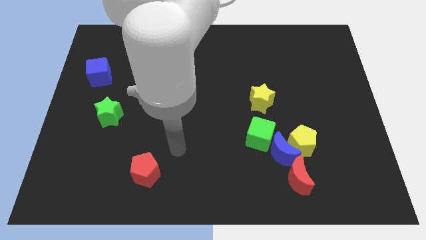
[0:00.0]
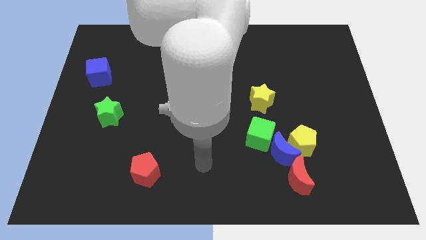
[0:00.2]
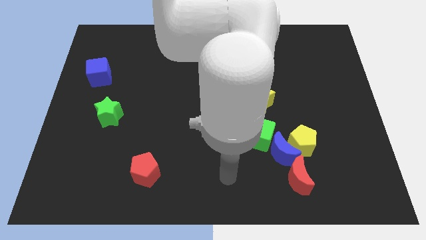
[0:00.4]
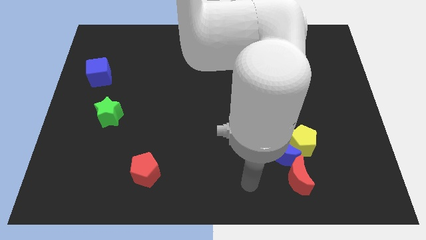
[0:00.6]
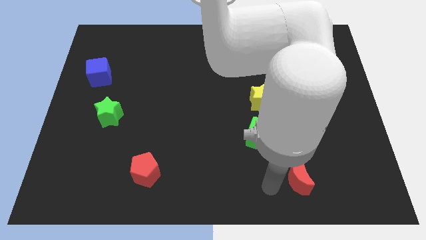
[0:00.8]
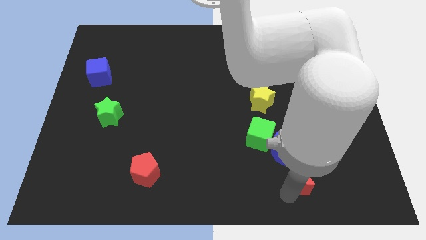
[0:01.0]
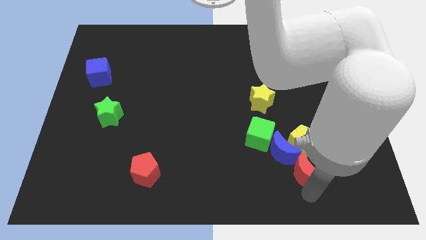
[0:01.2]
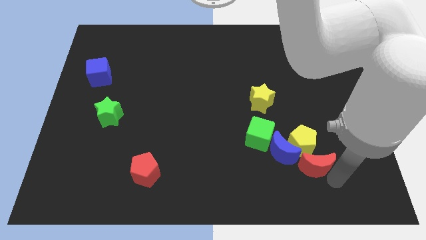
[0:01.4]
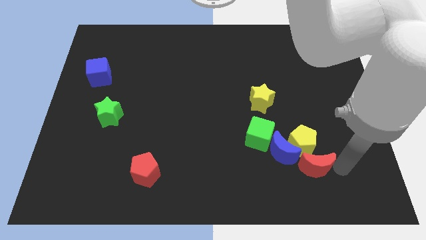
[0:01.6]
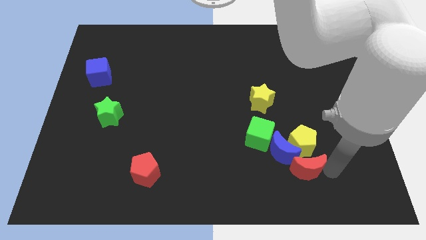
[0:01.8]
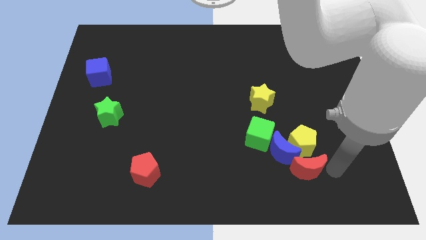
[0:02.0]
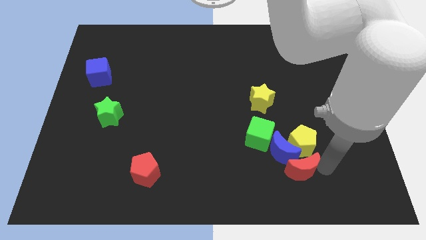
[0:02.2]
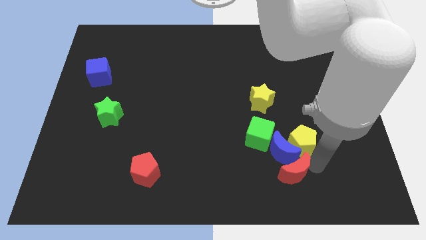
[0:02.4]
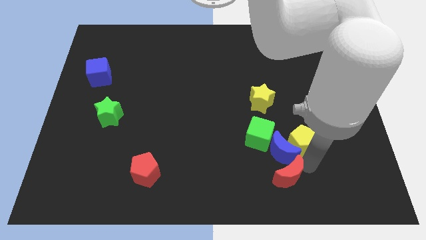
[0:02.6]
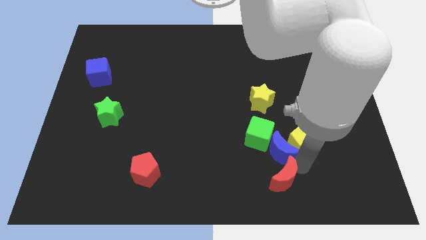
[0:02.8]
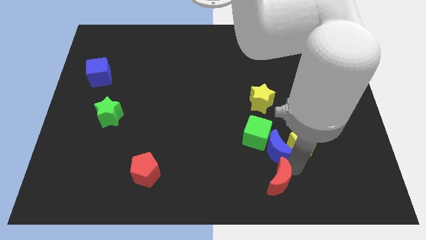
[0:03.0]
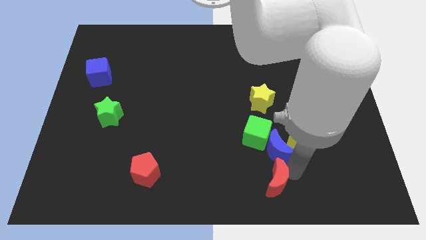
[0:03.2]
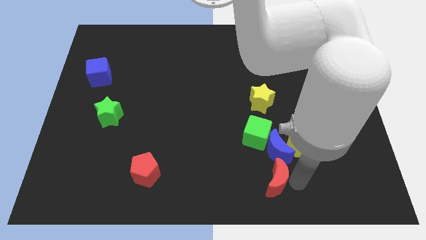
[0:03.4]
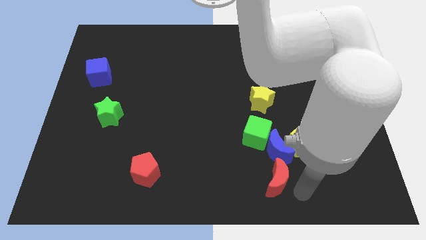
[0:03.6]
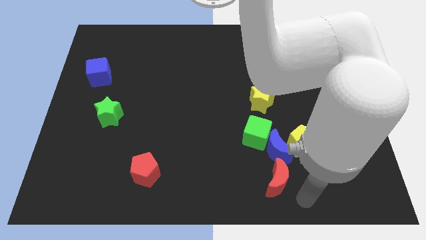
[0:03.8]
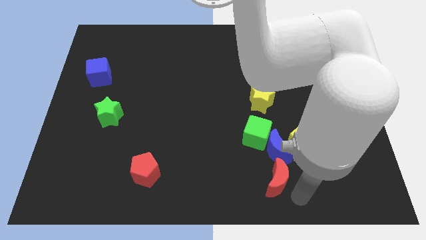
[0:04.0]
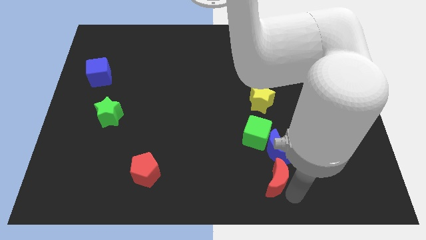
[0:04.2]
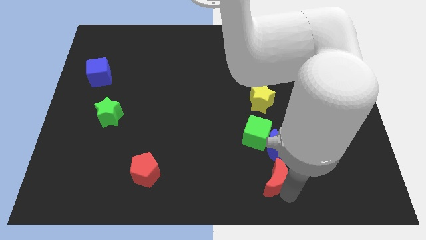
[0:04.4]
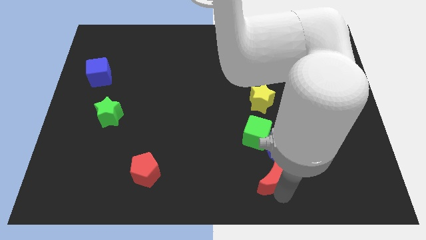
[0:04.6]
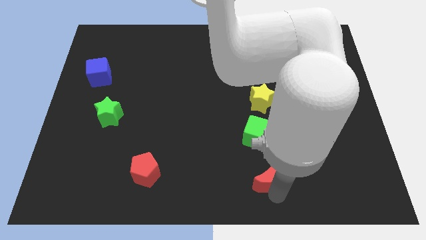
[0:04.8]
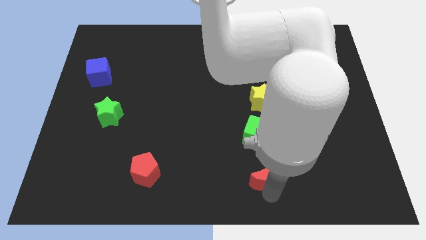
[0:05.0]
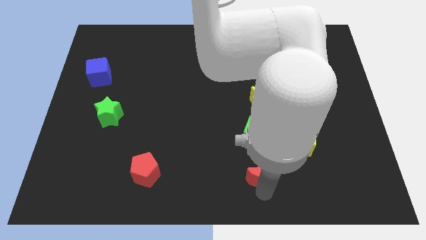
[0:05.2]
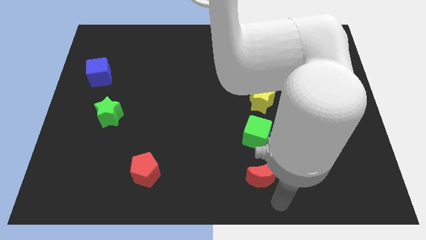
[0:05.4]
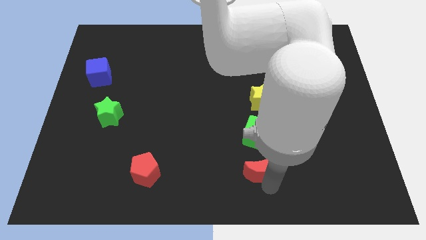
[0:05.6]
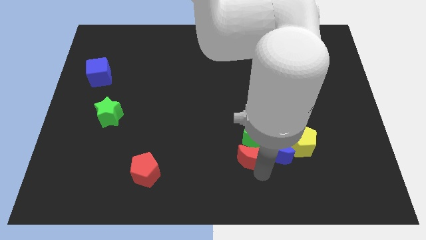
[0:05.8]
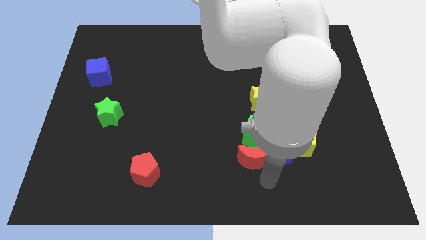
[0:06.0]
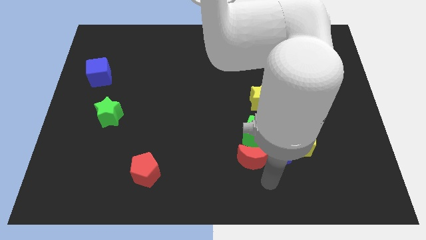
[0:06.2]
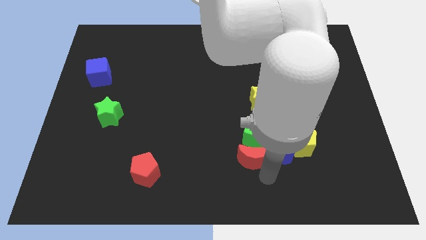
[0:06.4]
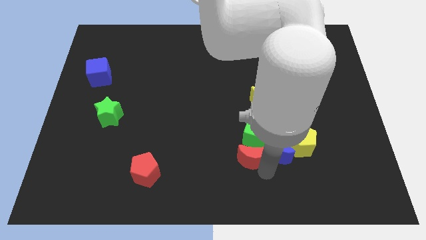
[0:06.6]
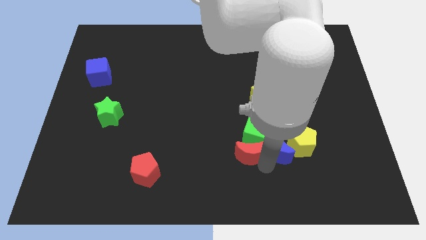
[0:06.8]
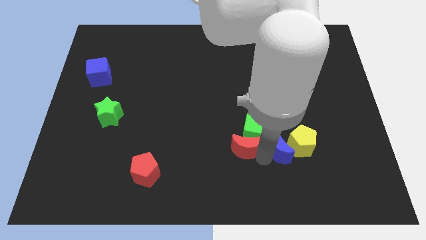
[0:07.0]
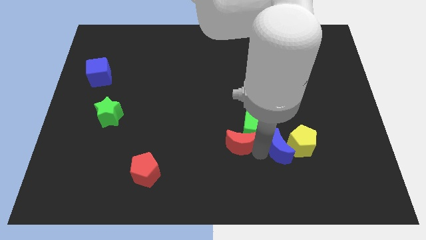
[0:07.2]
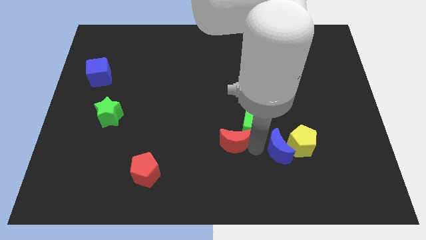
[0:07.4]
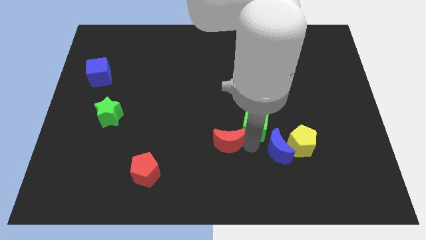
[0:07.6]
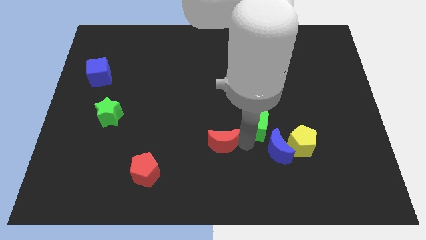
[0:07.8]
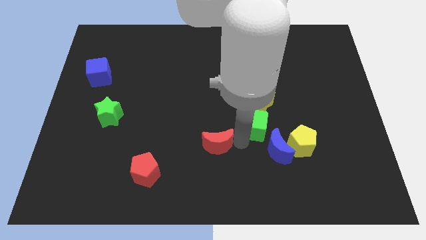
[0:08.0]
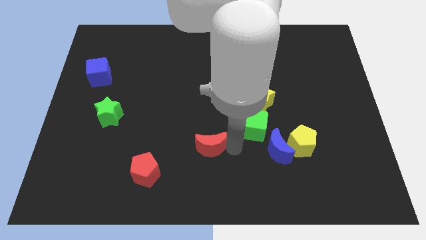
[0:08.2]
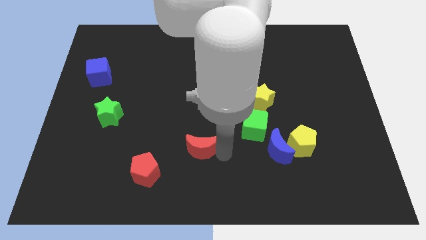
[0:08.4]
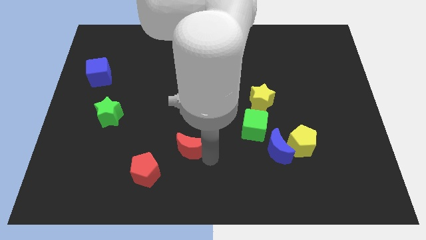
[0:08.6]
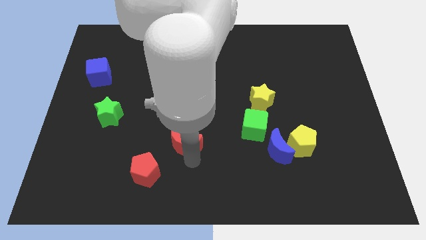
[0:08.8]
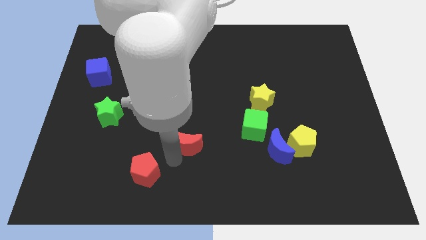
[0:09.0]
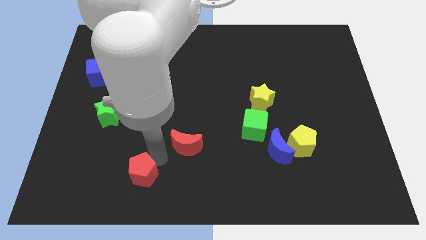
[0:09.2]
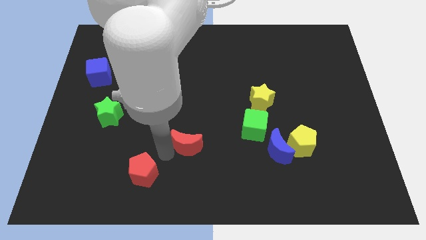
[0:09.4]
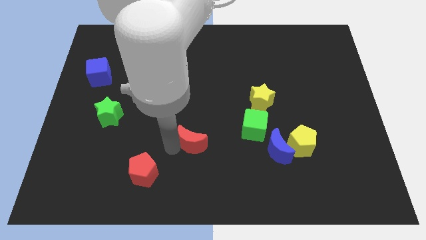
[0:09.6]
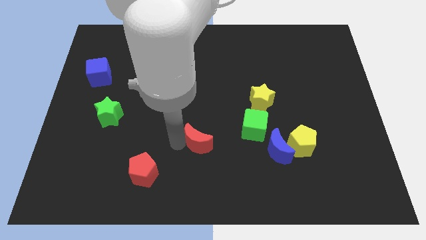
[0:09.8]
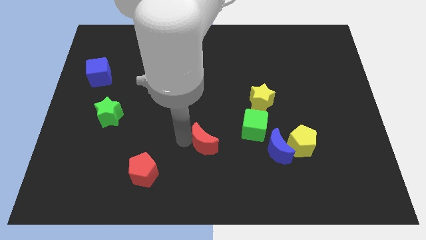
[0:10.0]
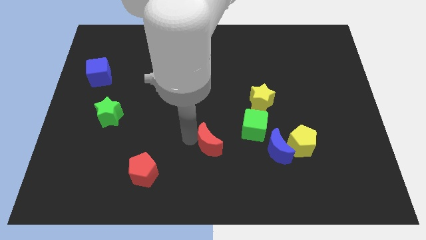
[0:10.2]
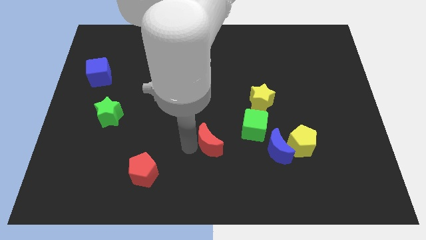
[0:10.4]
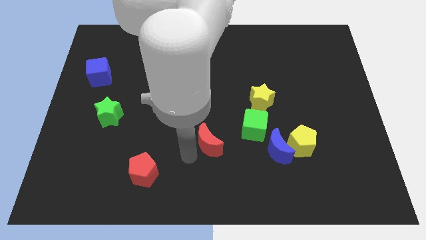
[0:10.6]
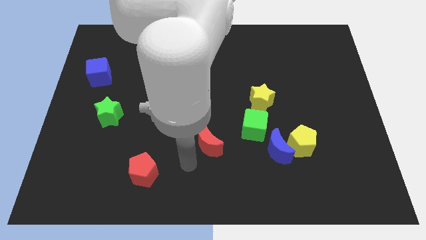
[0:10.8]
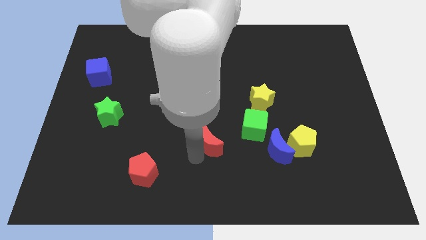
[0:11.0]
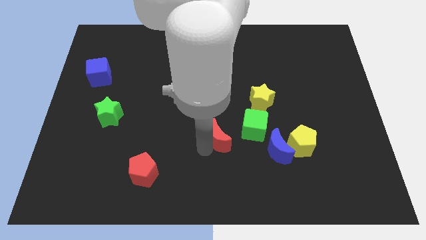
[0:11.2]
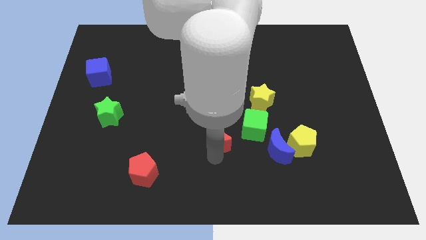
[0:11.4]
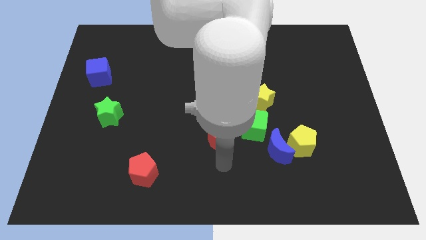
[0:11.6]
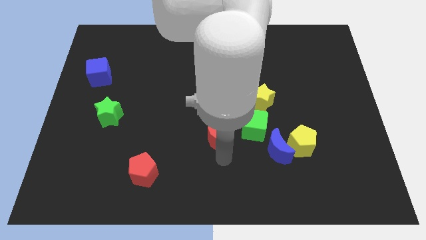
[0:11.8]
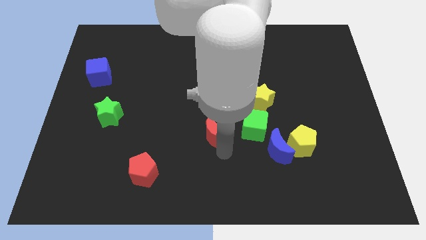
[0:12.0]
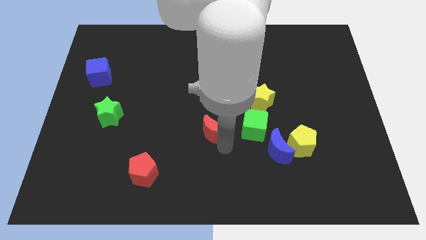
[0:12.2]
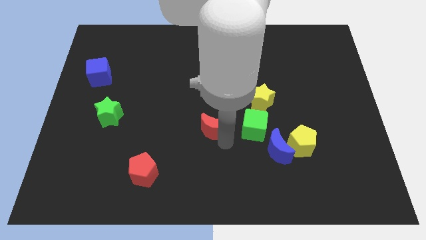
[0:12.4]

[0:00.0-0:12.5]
slide the red moon up and then to the left

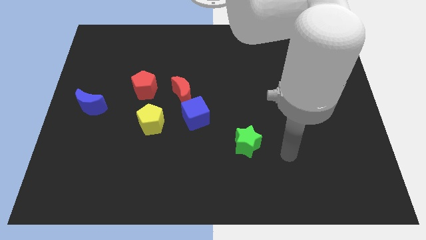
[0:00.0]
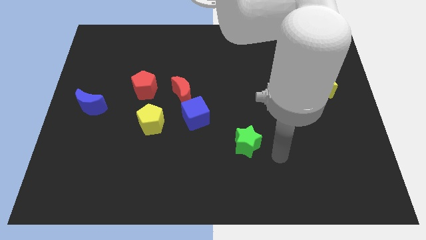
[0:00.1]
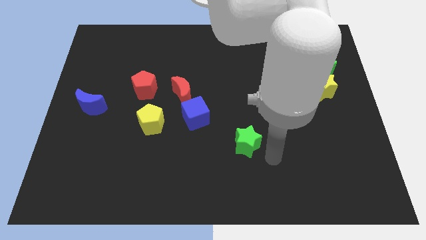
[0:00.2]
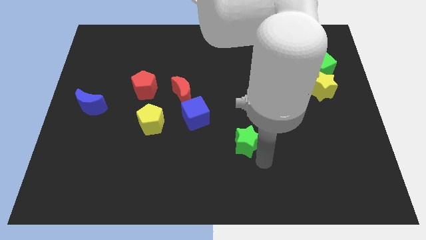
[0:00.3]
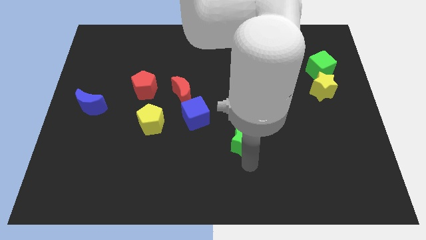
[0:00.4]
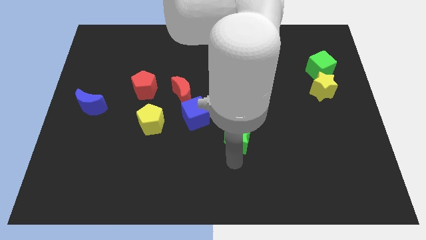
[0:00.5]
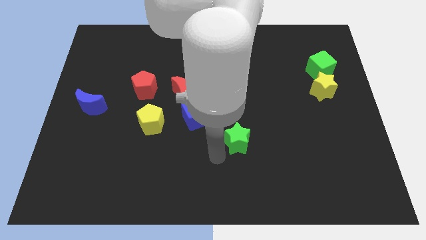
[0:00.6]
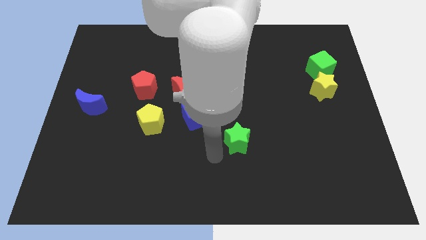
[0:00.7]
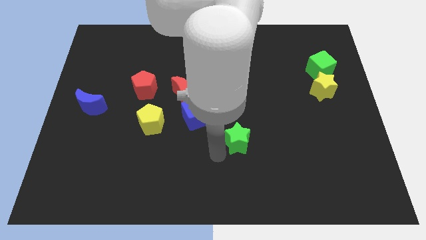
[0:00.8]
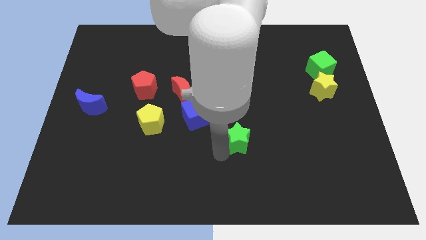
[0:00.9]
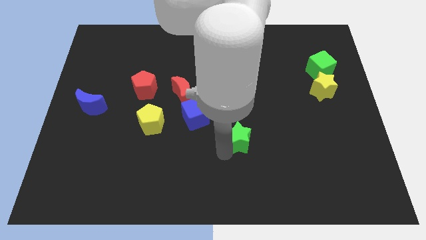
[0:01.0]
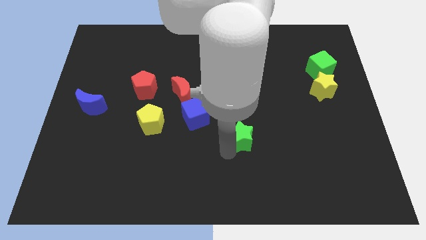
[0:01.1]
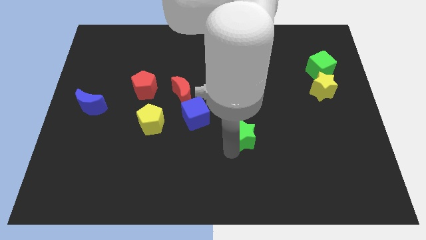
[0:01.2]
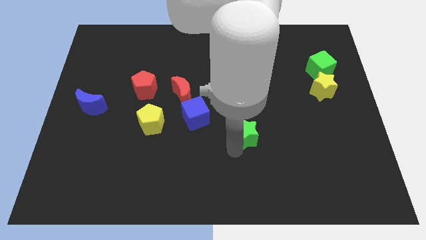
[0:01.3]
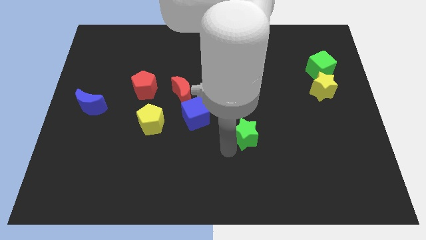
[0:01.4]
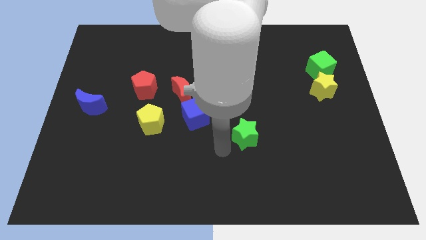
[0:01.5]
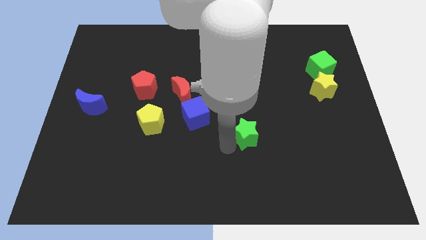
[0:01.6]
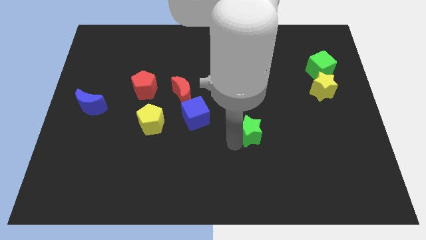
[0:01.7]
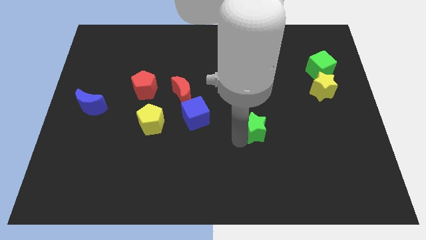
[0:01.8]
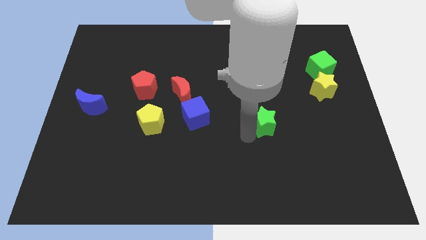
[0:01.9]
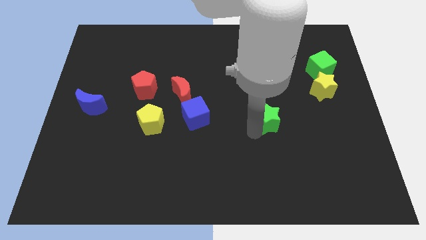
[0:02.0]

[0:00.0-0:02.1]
push the green star upwards and to the right somewhat
